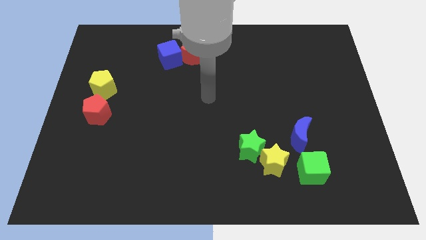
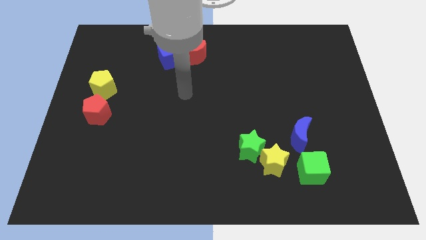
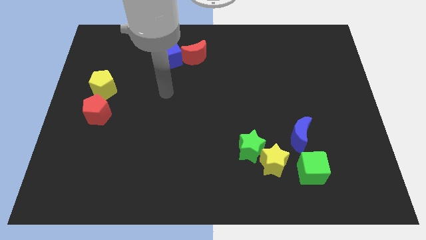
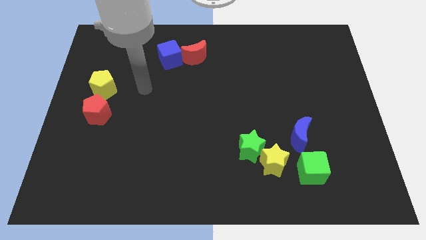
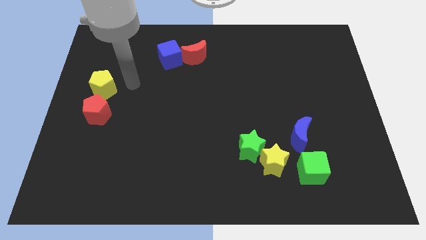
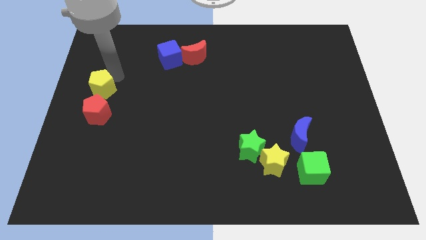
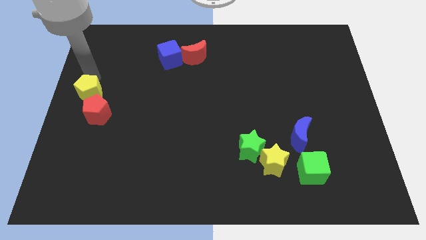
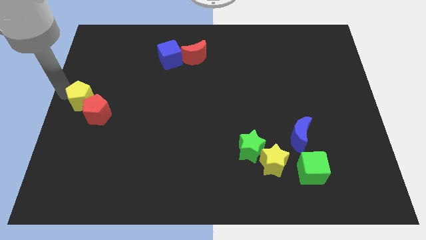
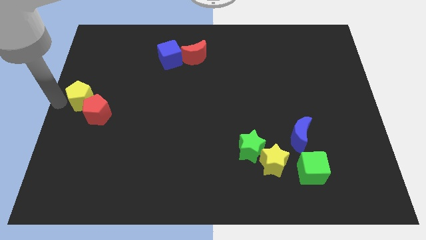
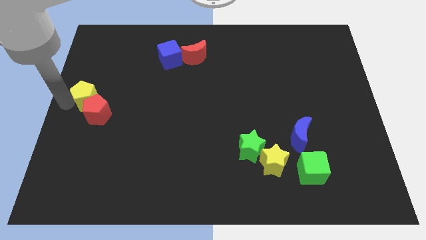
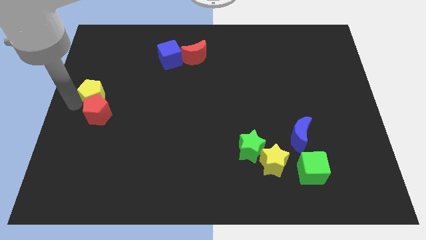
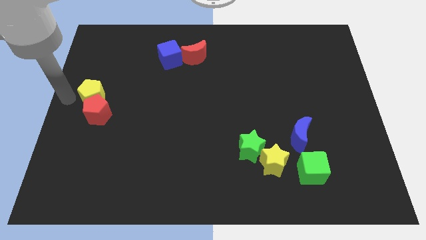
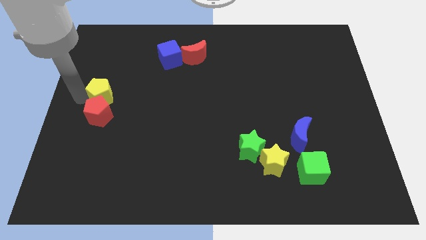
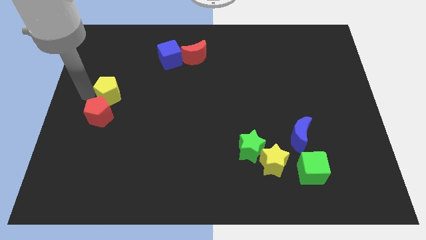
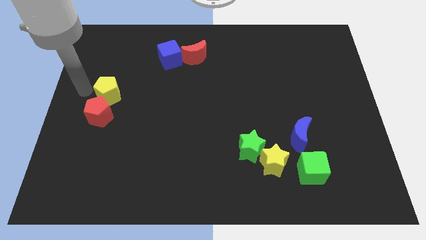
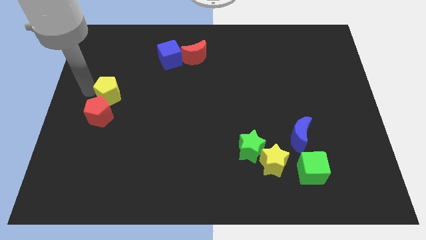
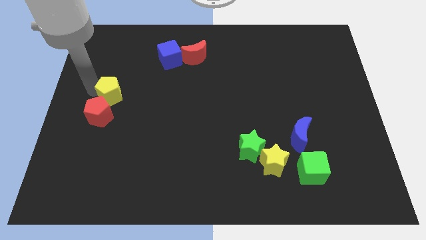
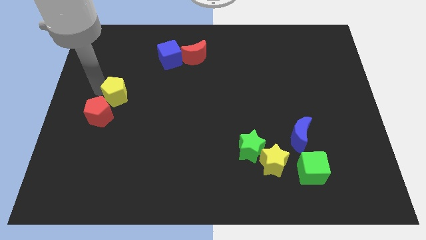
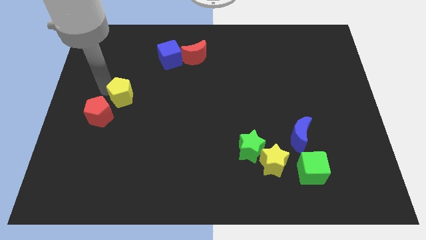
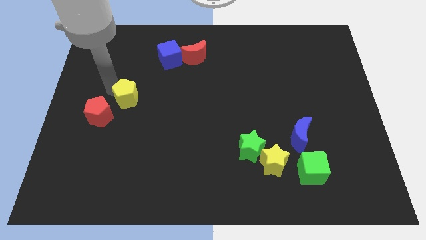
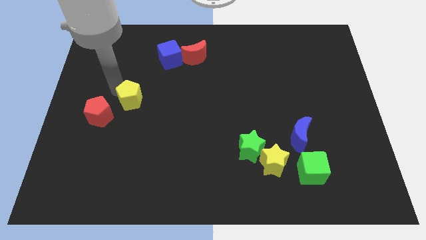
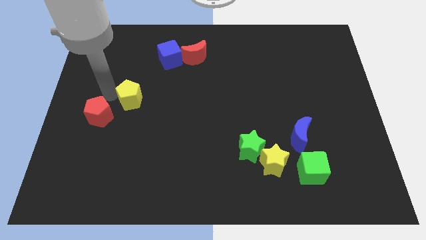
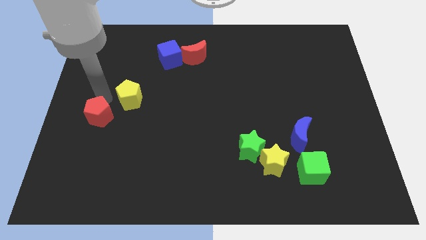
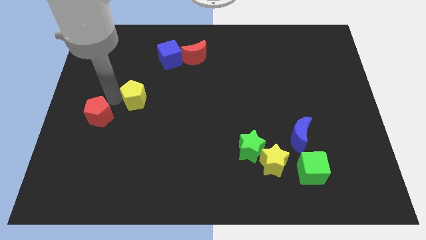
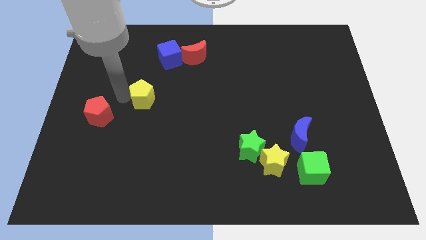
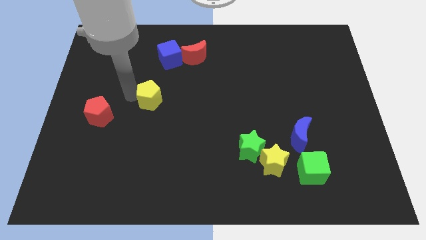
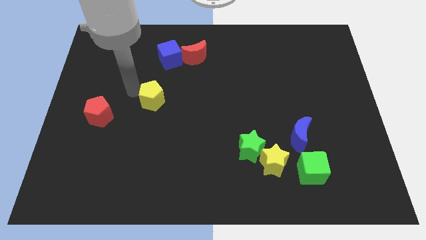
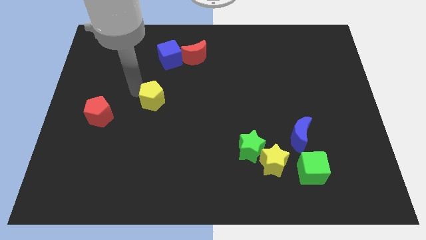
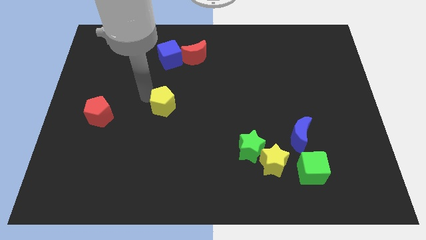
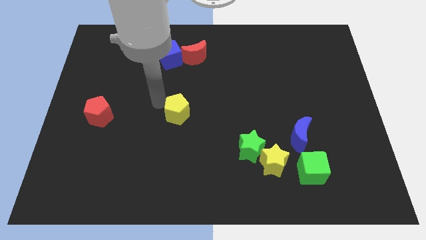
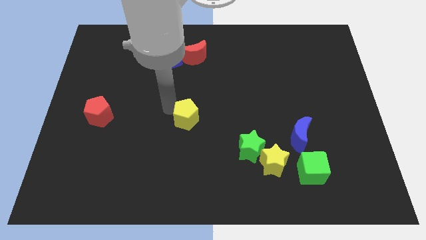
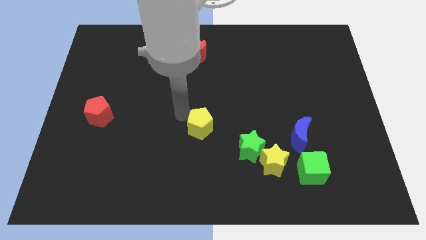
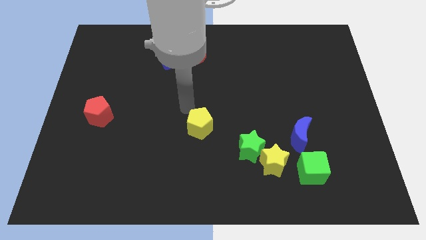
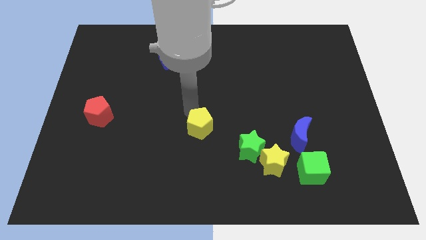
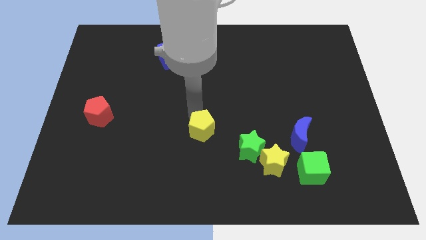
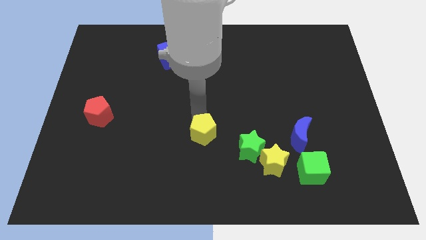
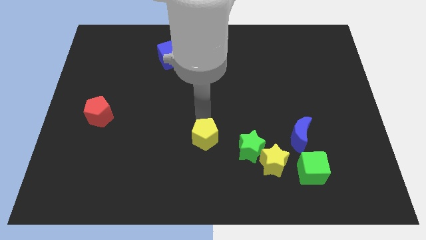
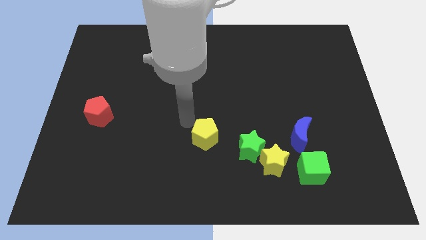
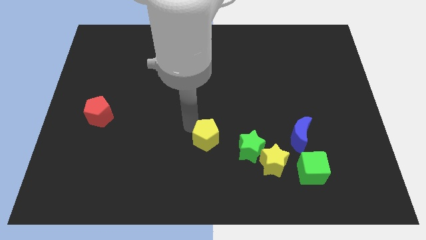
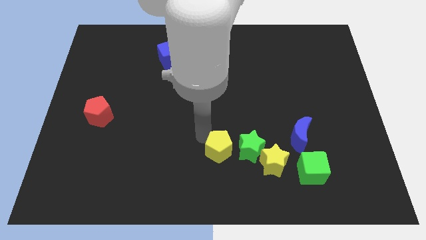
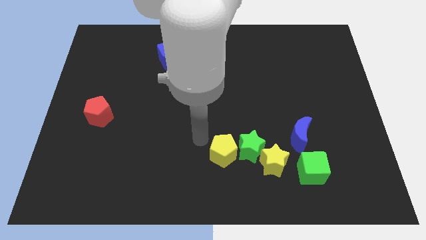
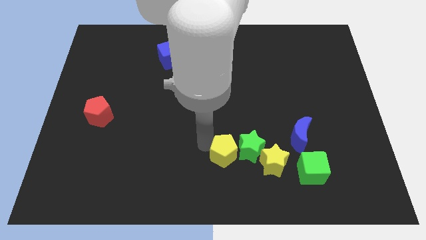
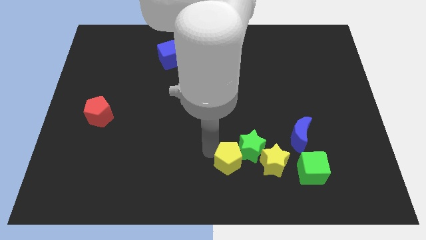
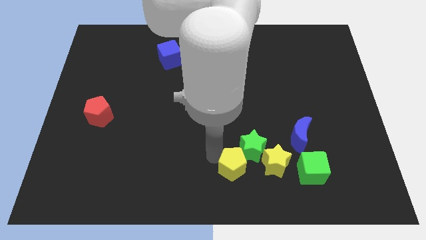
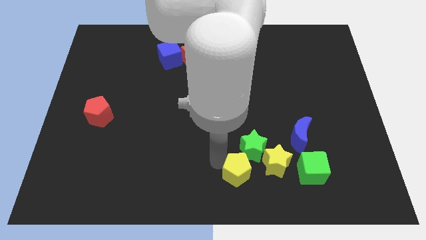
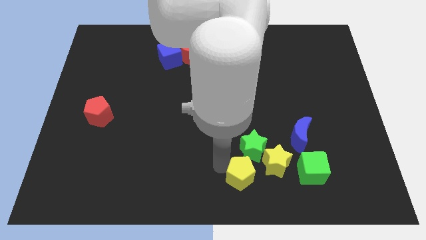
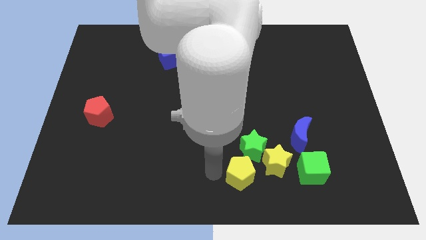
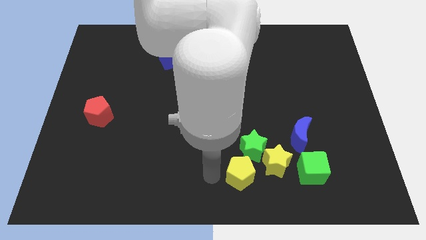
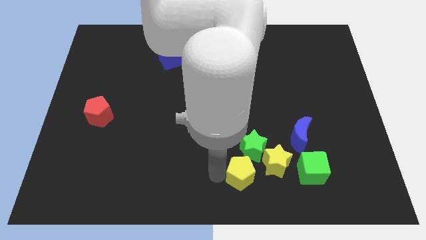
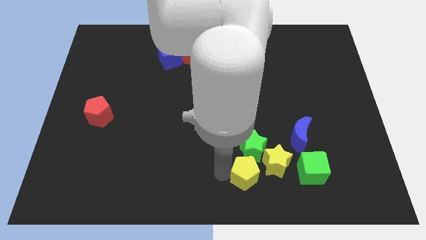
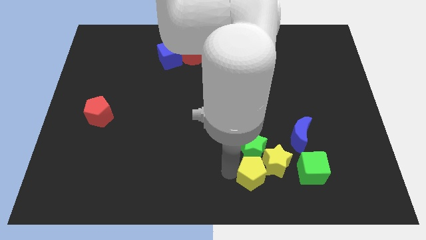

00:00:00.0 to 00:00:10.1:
put the yellow pentagon to the bottom right of the green star

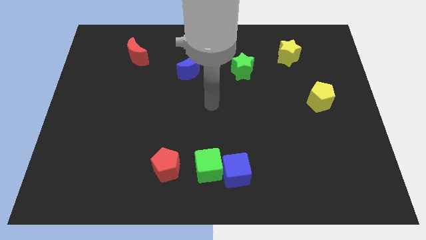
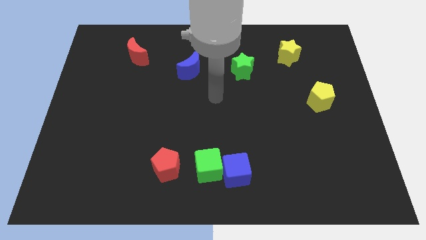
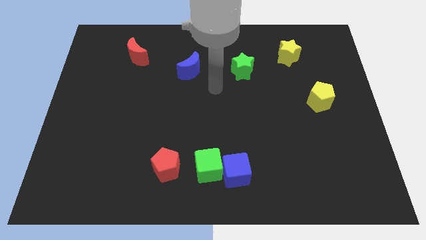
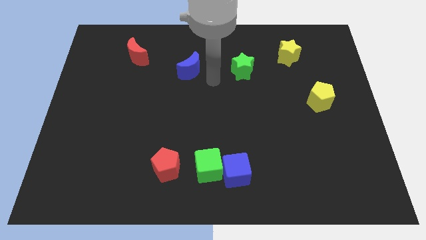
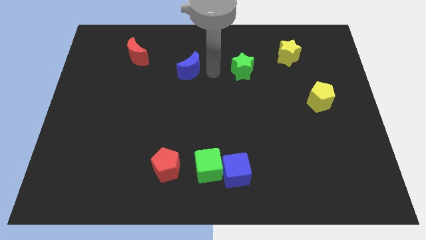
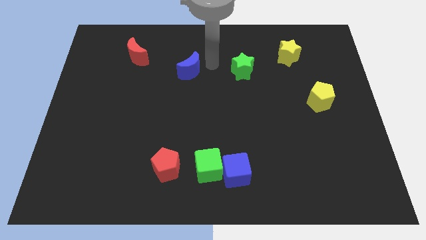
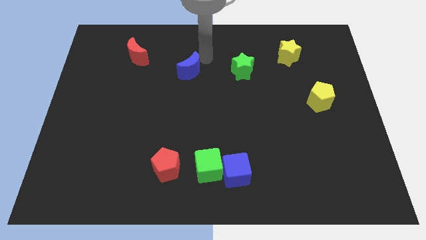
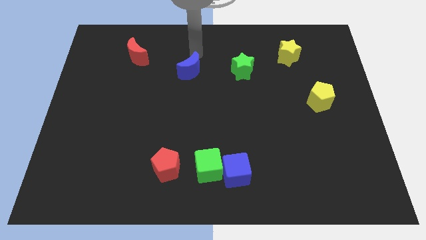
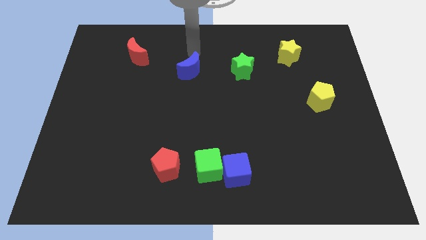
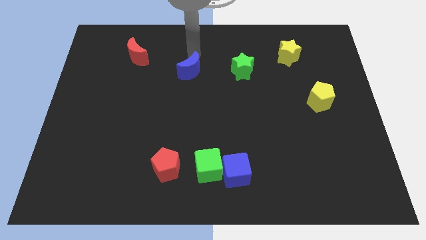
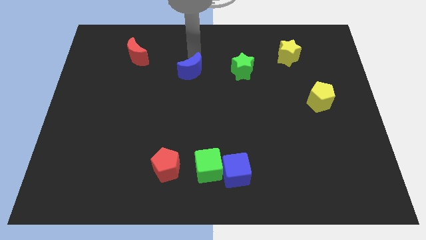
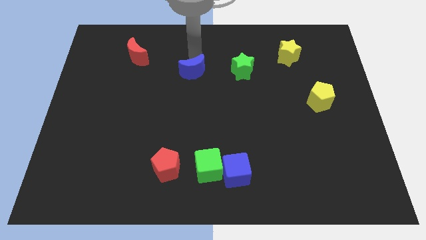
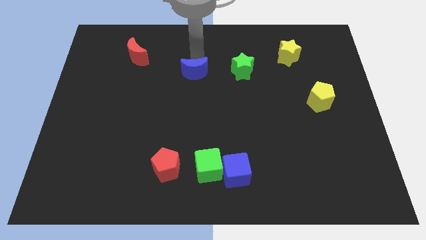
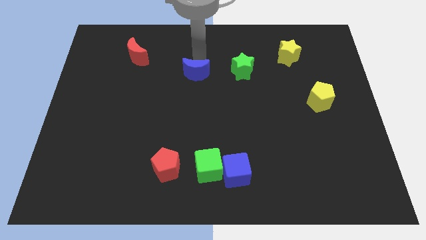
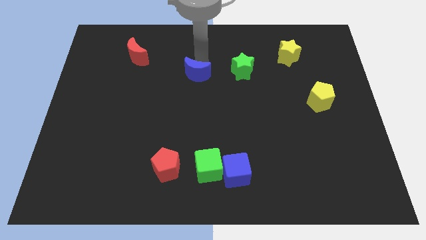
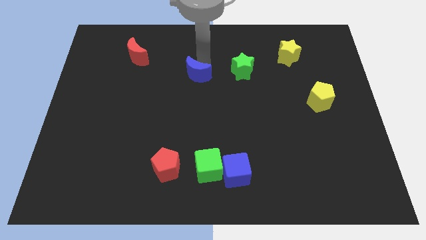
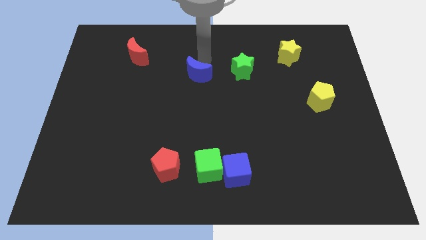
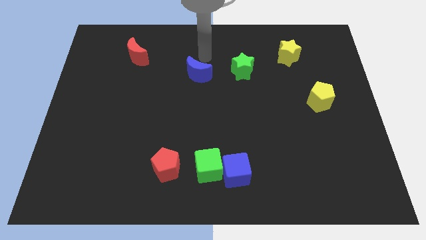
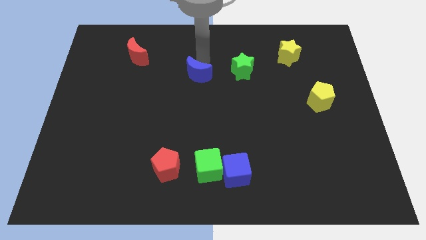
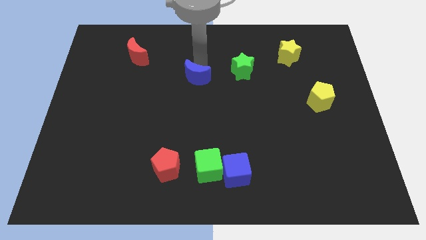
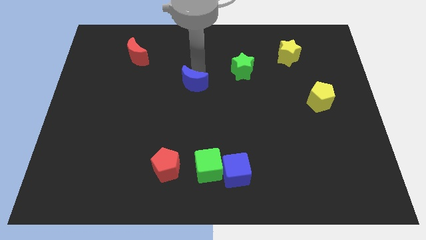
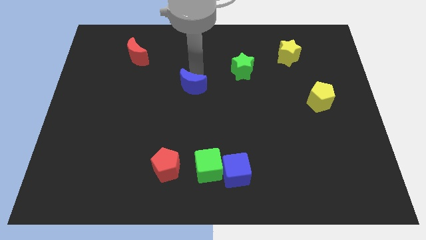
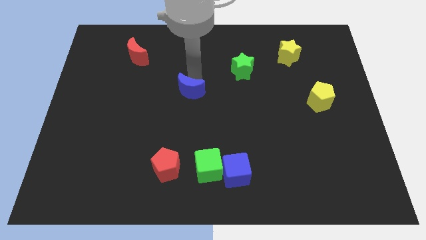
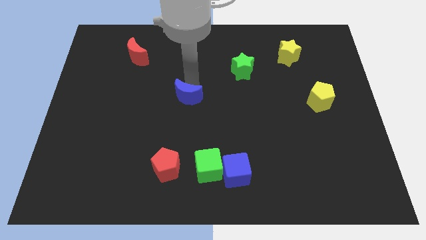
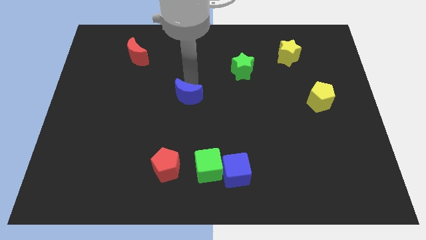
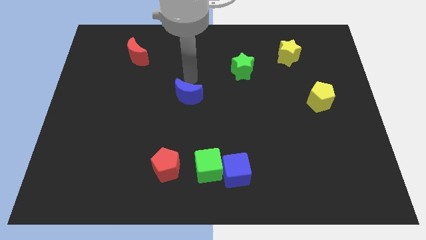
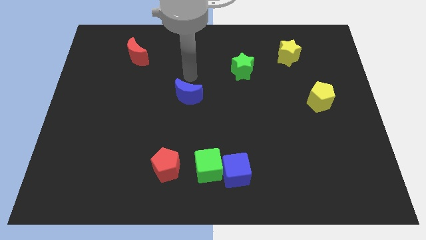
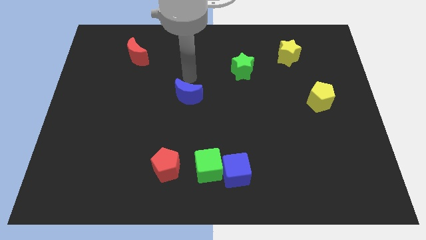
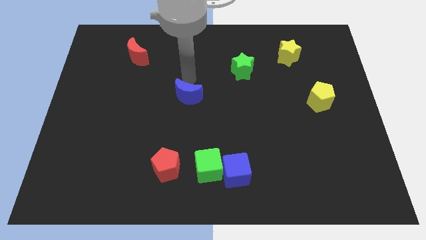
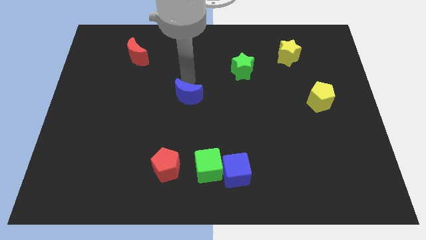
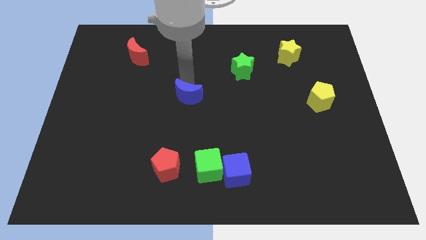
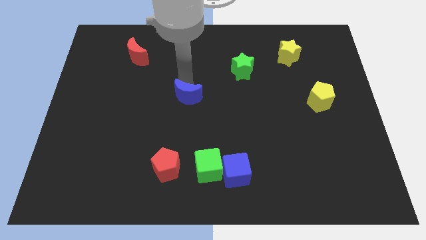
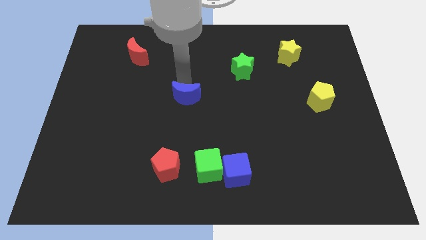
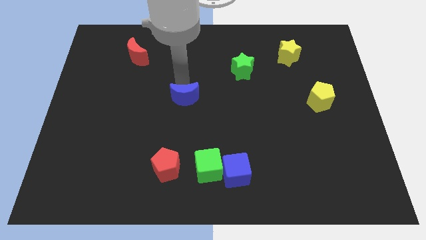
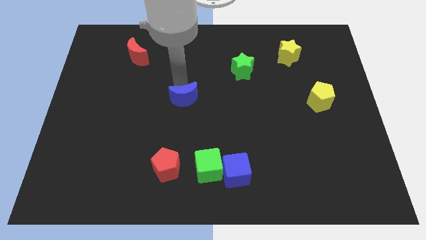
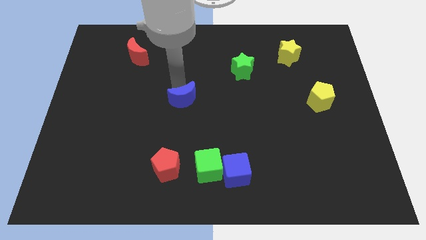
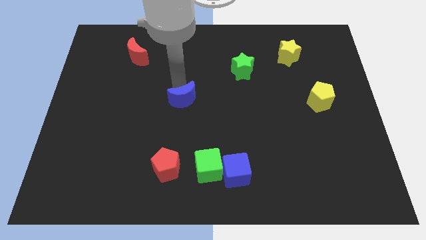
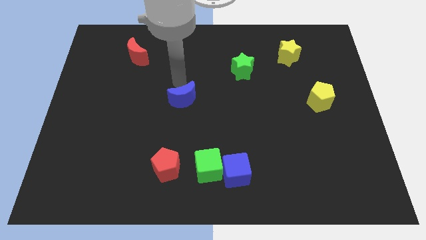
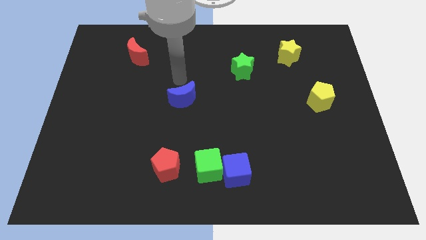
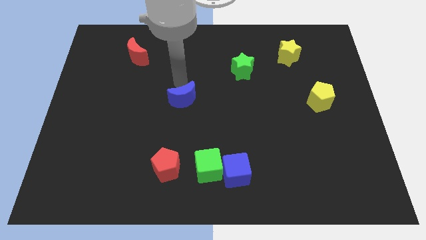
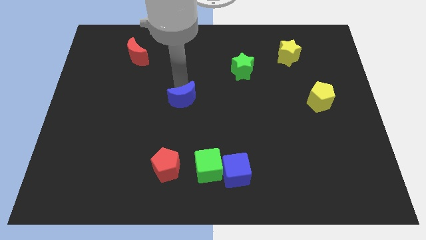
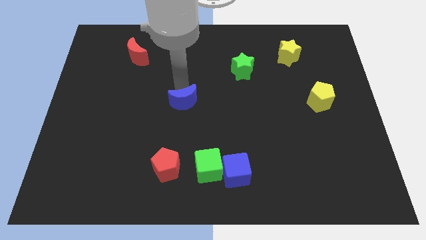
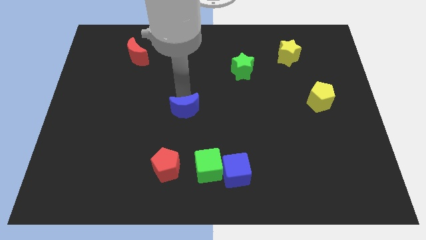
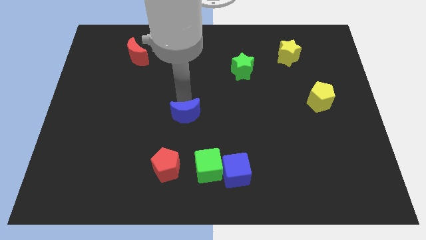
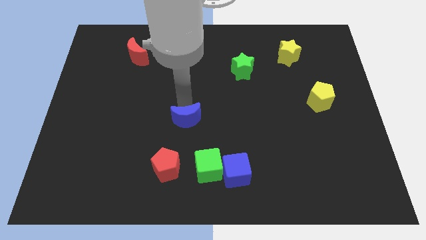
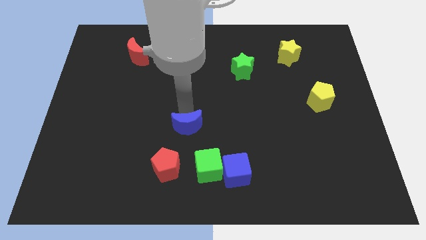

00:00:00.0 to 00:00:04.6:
move the blue moon to the top right side of the red pentagon
